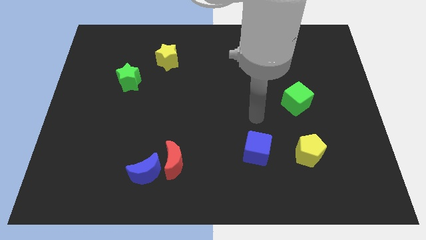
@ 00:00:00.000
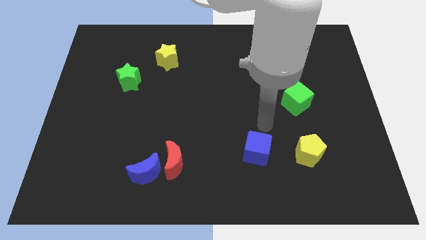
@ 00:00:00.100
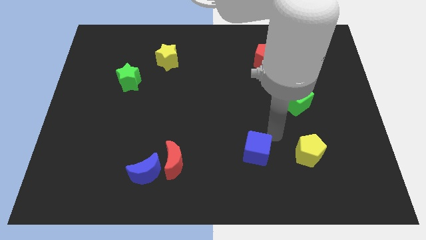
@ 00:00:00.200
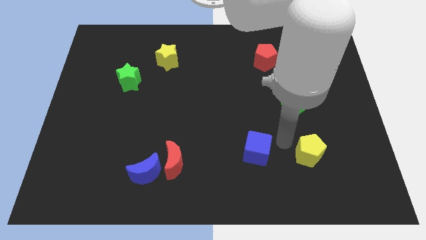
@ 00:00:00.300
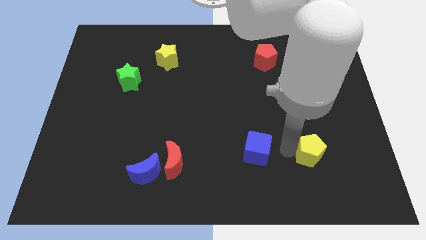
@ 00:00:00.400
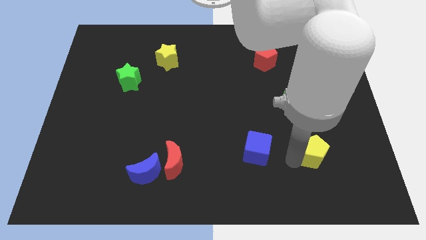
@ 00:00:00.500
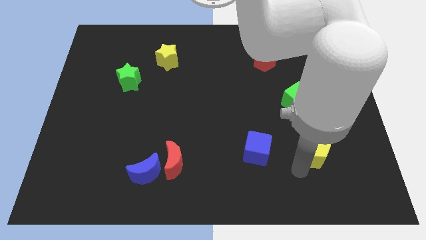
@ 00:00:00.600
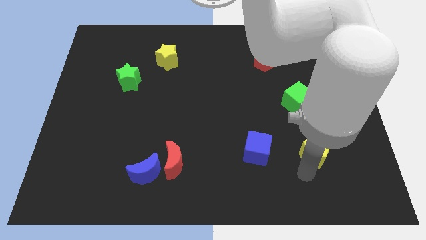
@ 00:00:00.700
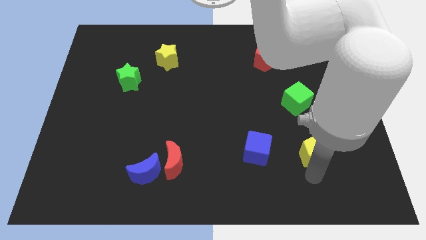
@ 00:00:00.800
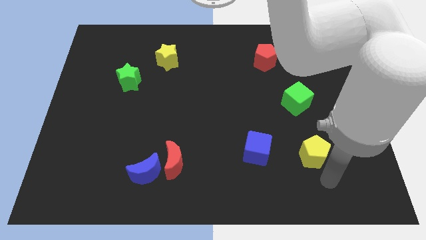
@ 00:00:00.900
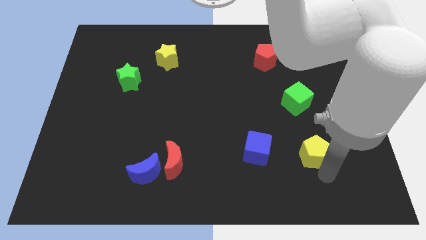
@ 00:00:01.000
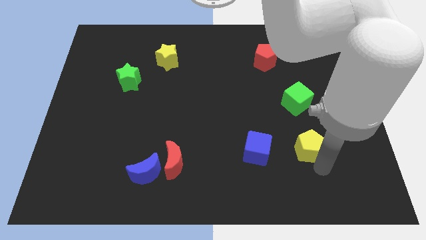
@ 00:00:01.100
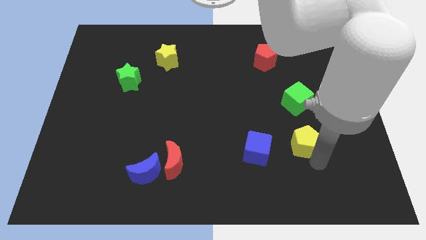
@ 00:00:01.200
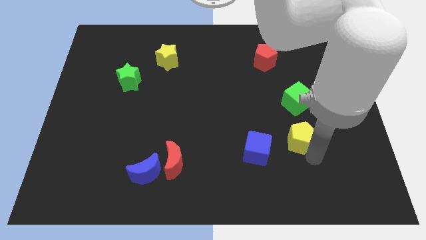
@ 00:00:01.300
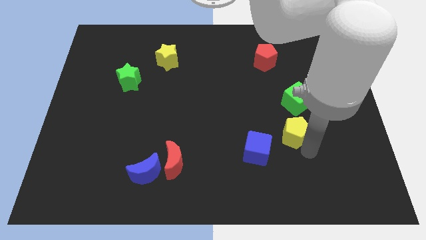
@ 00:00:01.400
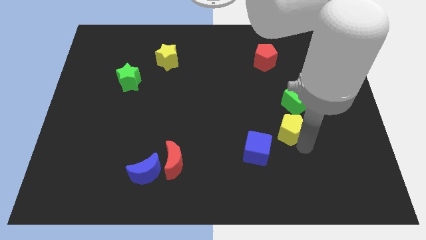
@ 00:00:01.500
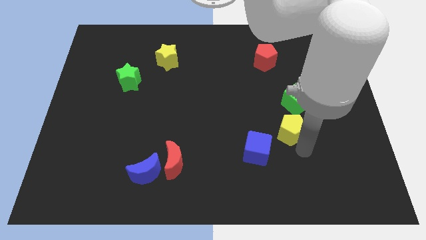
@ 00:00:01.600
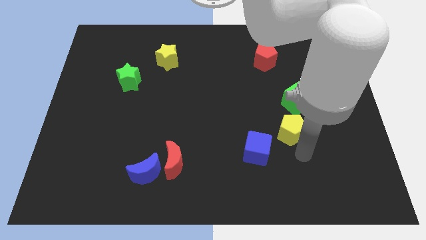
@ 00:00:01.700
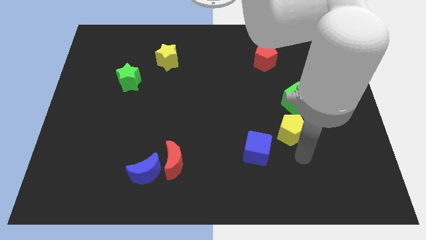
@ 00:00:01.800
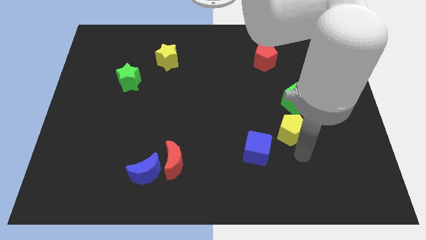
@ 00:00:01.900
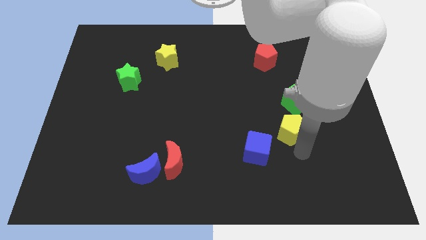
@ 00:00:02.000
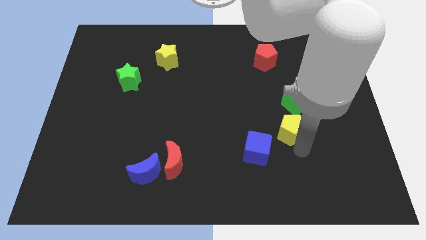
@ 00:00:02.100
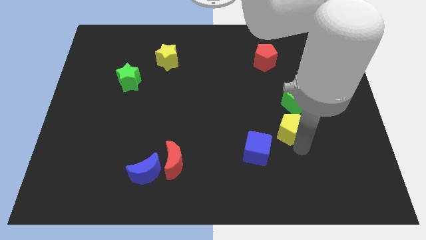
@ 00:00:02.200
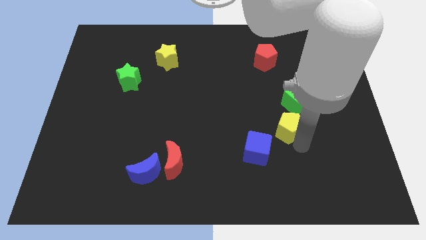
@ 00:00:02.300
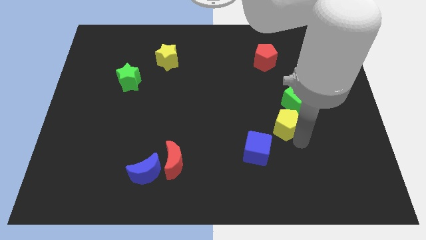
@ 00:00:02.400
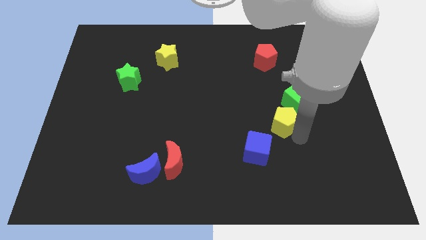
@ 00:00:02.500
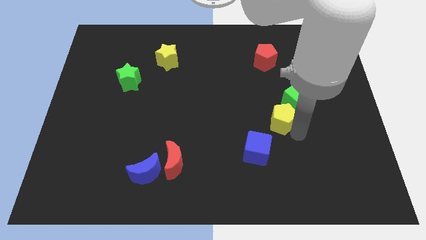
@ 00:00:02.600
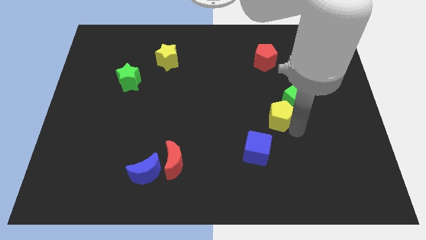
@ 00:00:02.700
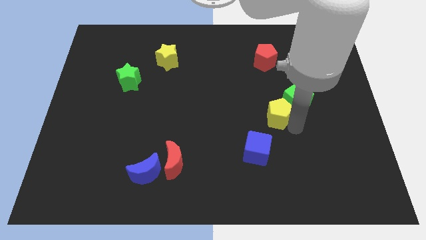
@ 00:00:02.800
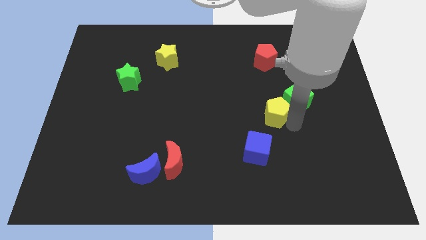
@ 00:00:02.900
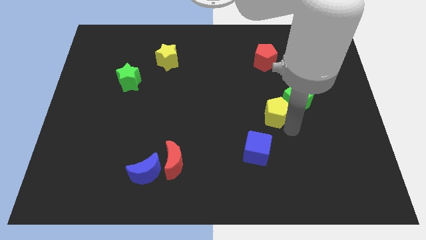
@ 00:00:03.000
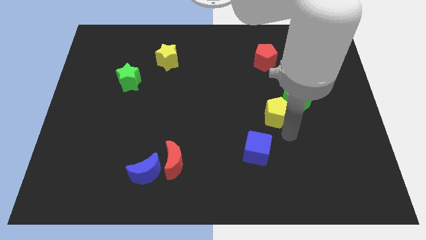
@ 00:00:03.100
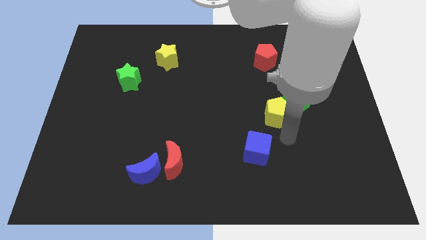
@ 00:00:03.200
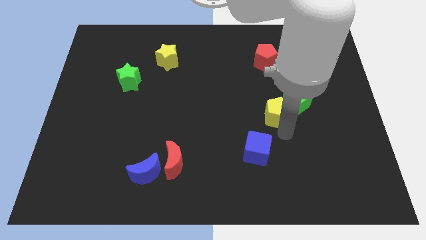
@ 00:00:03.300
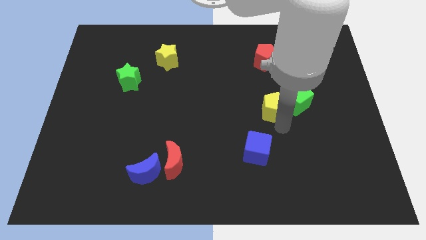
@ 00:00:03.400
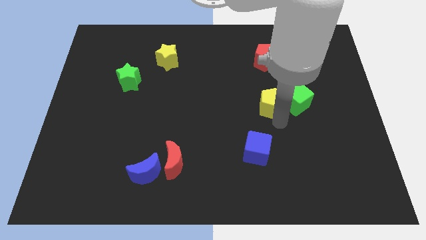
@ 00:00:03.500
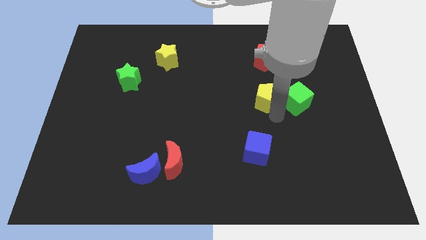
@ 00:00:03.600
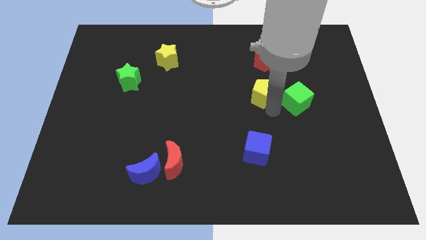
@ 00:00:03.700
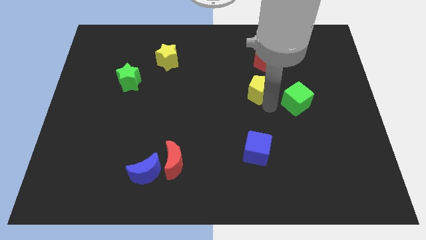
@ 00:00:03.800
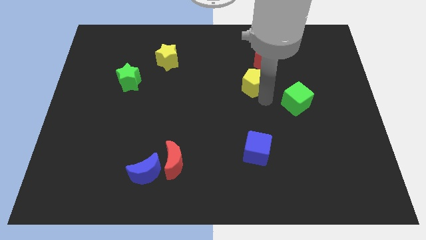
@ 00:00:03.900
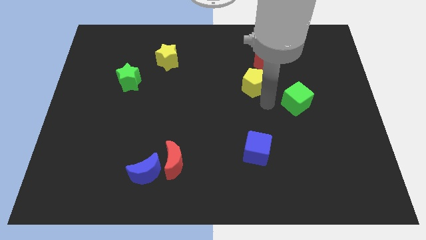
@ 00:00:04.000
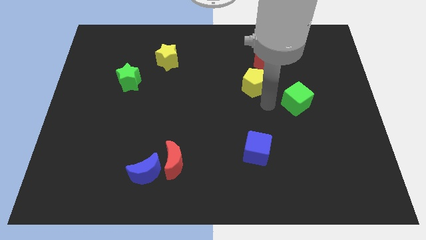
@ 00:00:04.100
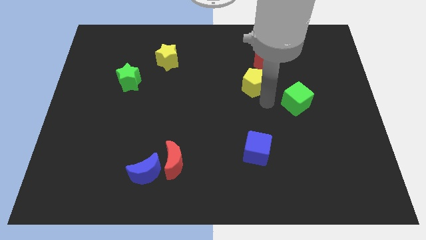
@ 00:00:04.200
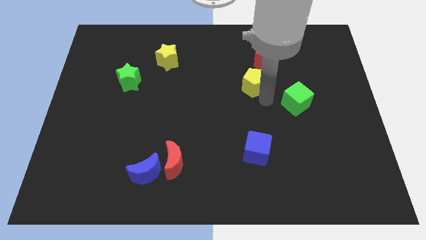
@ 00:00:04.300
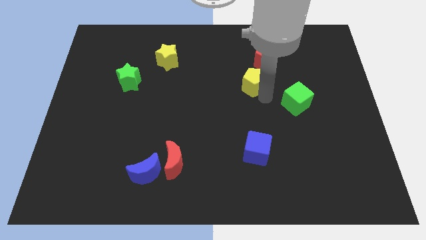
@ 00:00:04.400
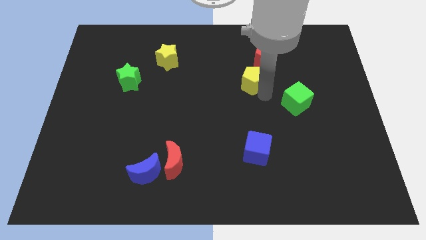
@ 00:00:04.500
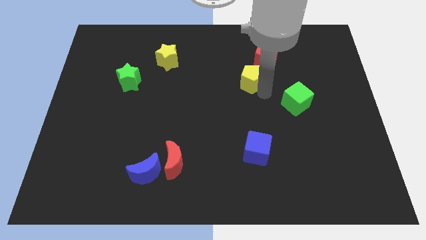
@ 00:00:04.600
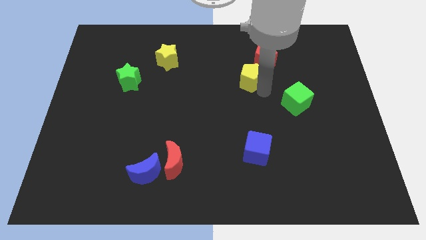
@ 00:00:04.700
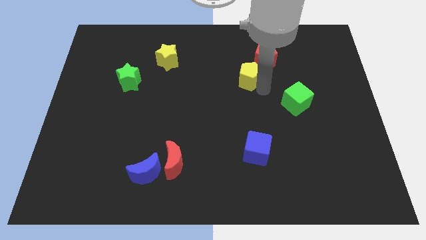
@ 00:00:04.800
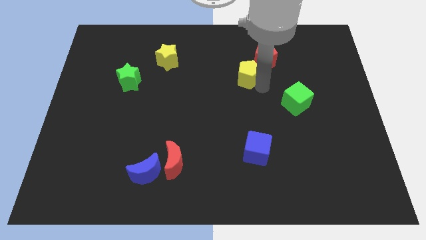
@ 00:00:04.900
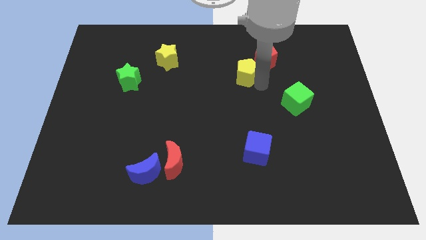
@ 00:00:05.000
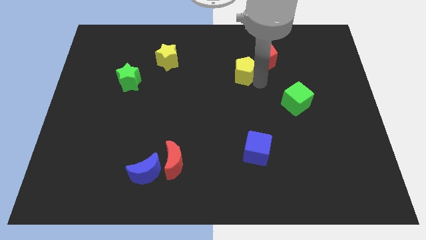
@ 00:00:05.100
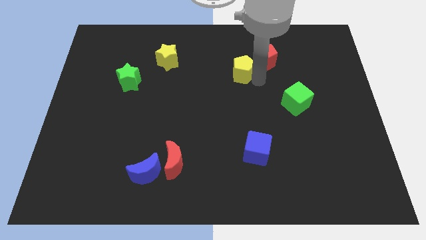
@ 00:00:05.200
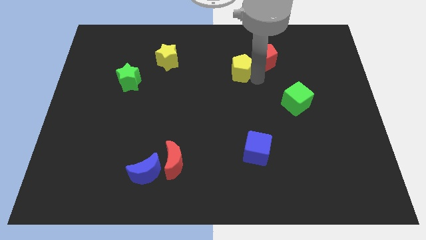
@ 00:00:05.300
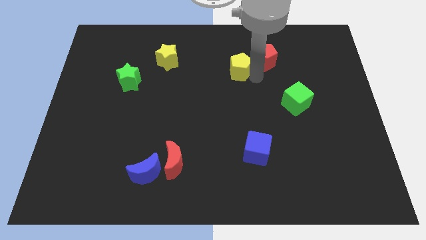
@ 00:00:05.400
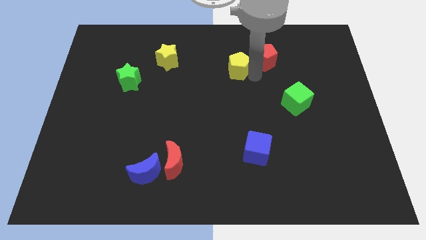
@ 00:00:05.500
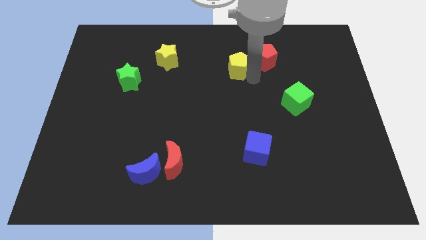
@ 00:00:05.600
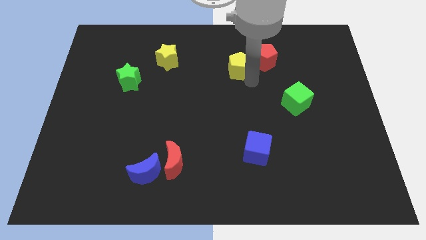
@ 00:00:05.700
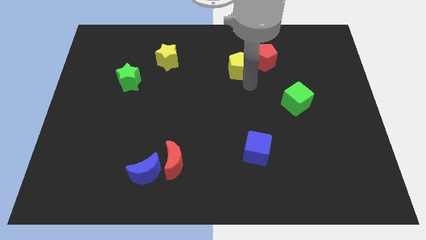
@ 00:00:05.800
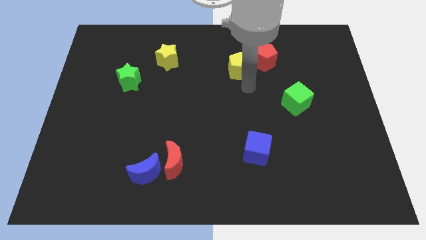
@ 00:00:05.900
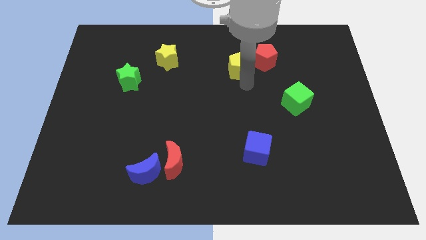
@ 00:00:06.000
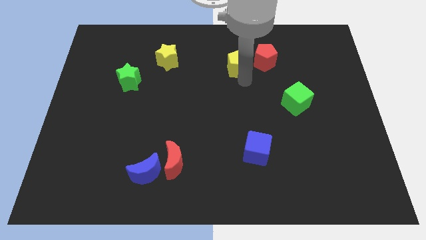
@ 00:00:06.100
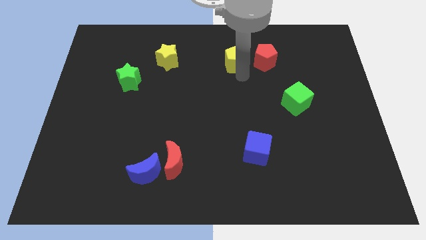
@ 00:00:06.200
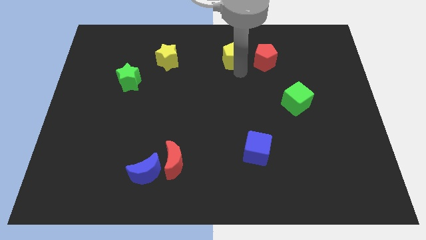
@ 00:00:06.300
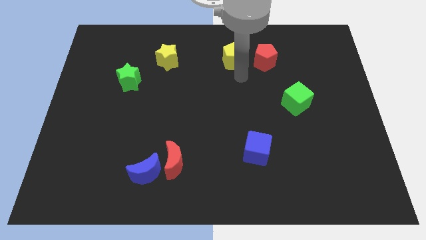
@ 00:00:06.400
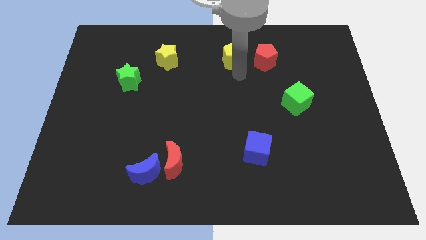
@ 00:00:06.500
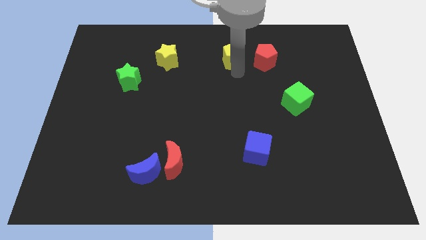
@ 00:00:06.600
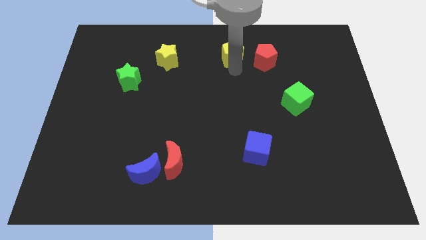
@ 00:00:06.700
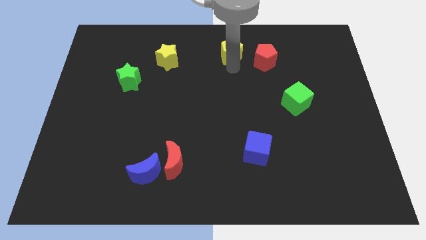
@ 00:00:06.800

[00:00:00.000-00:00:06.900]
put the yellow pentagon to the towards your base

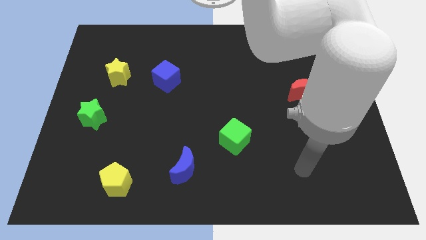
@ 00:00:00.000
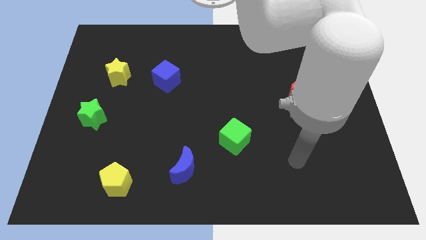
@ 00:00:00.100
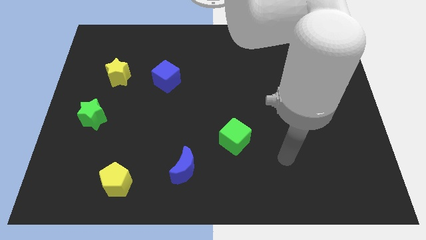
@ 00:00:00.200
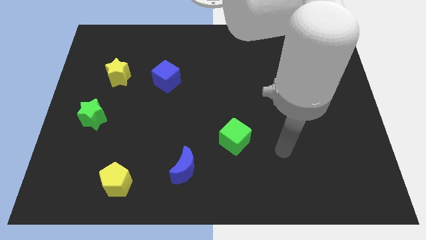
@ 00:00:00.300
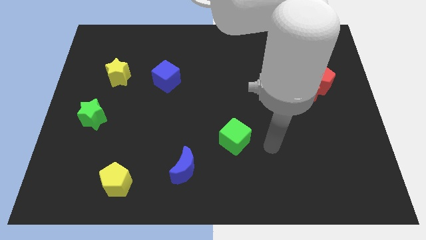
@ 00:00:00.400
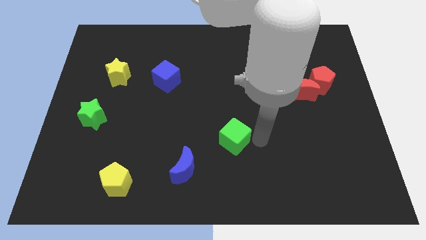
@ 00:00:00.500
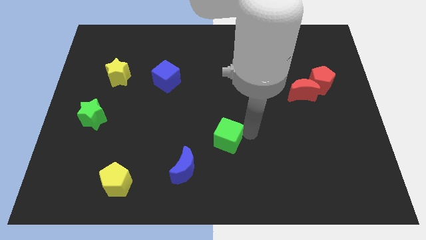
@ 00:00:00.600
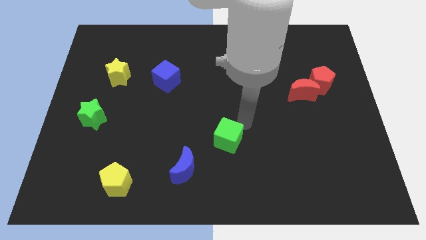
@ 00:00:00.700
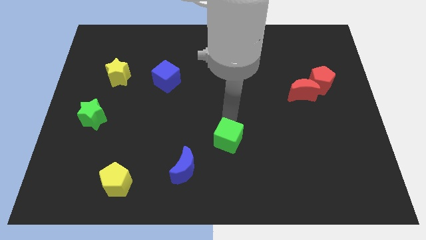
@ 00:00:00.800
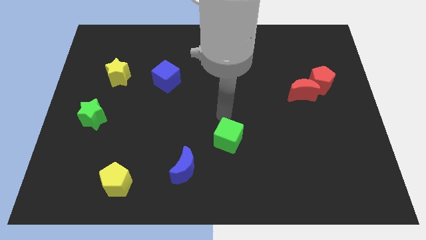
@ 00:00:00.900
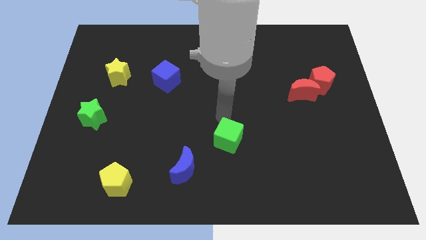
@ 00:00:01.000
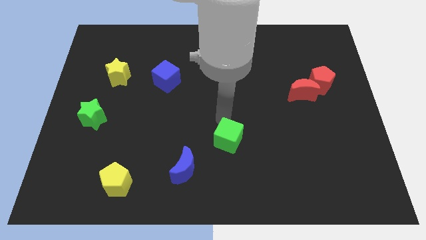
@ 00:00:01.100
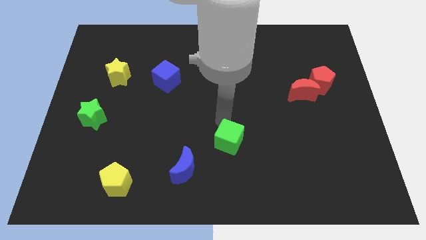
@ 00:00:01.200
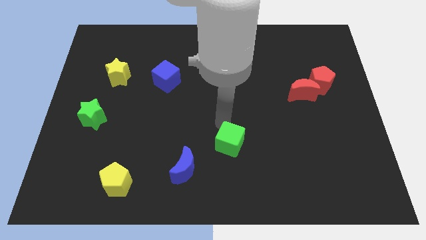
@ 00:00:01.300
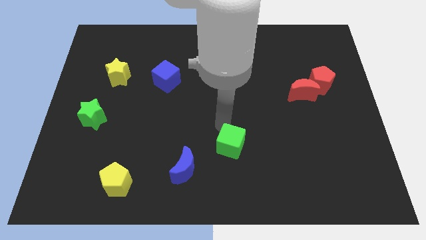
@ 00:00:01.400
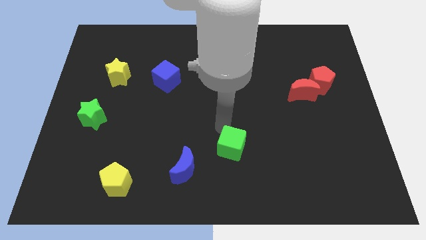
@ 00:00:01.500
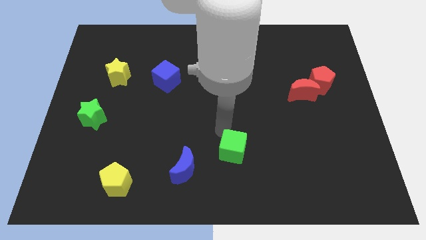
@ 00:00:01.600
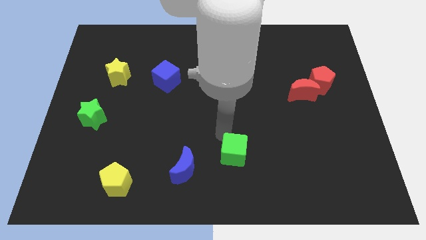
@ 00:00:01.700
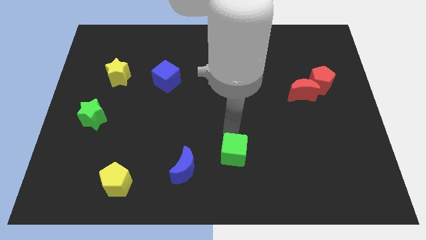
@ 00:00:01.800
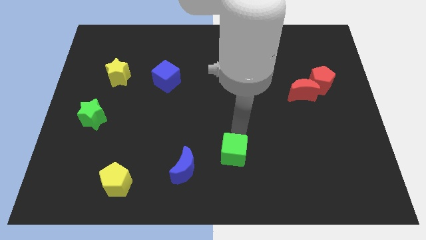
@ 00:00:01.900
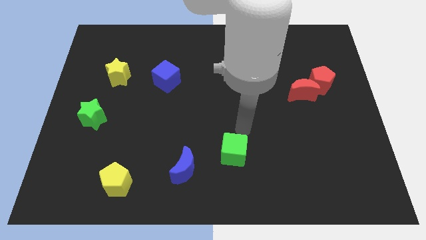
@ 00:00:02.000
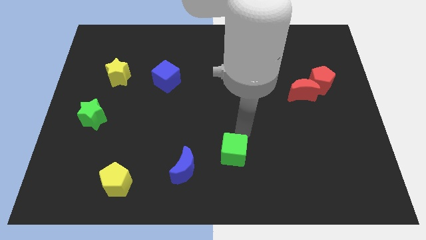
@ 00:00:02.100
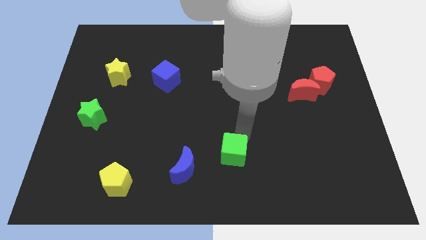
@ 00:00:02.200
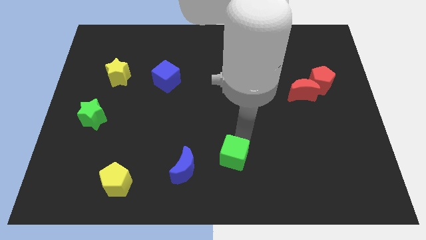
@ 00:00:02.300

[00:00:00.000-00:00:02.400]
slide the green cube to the bottom side
